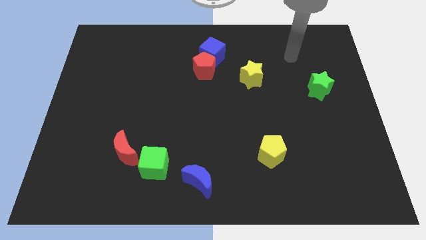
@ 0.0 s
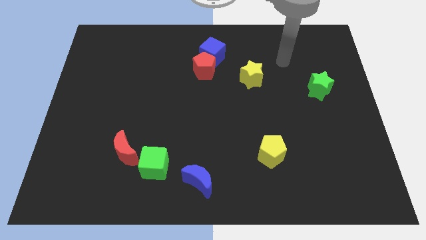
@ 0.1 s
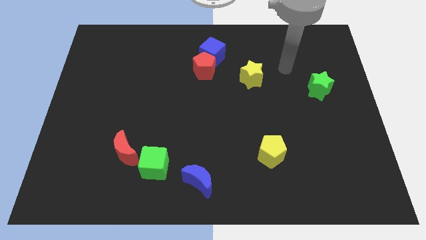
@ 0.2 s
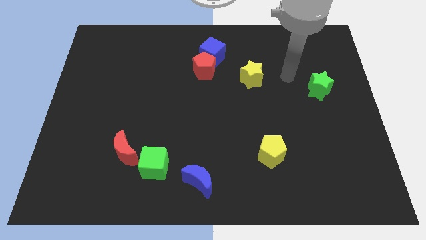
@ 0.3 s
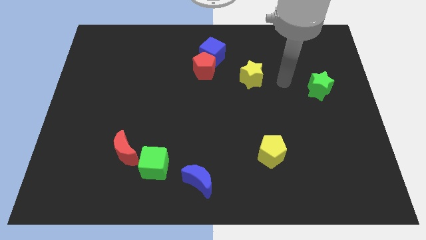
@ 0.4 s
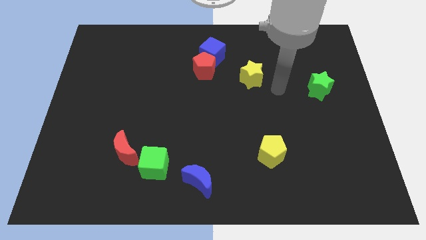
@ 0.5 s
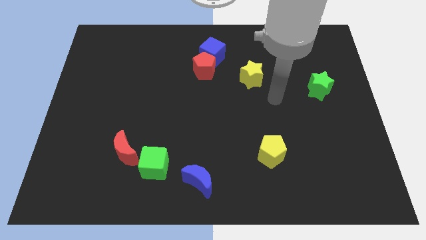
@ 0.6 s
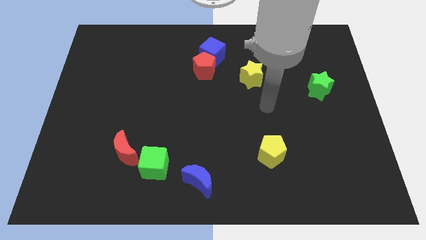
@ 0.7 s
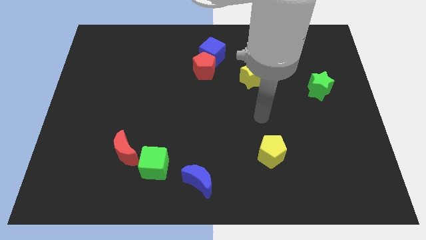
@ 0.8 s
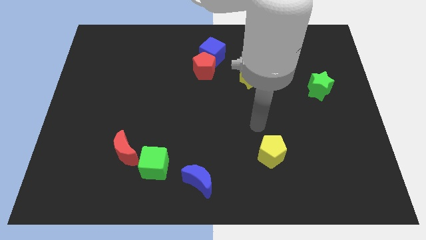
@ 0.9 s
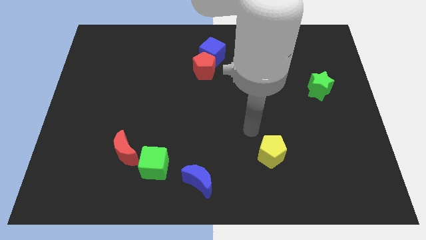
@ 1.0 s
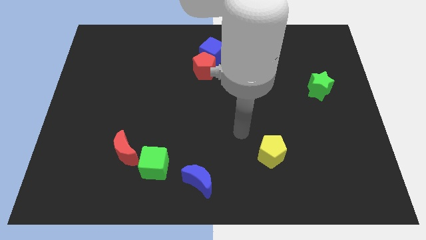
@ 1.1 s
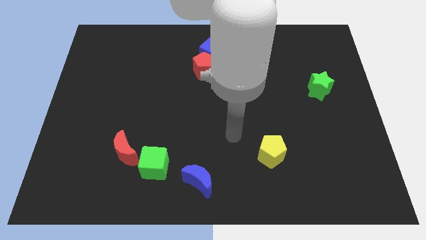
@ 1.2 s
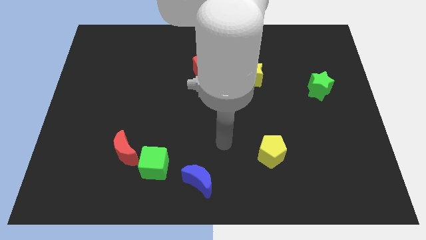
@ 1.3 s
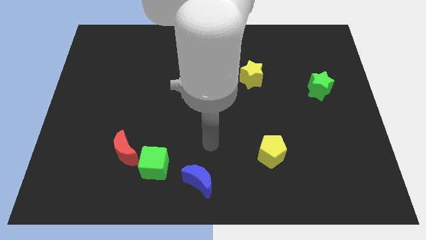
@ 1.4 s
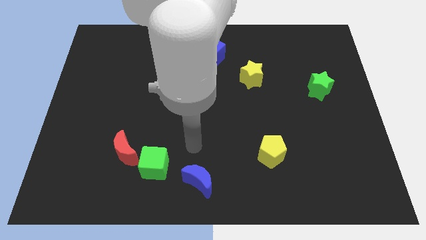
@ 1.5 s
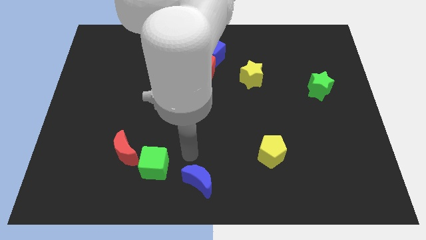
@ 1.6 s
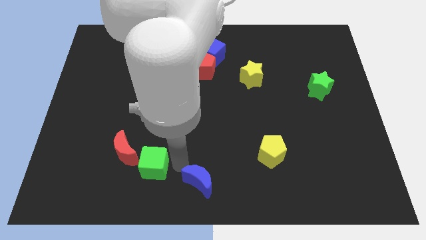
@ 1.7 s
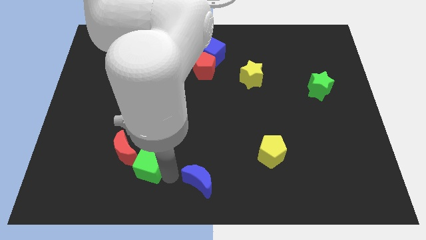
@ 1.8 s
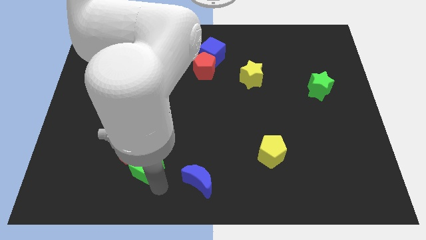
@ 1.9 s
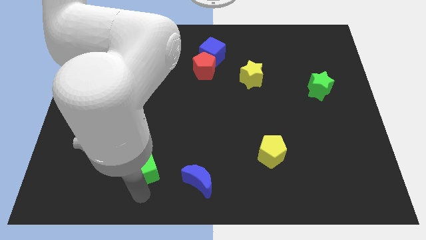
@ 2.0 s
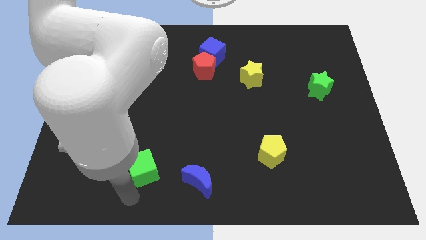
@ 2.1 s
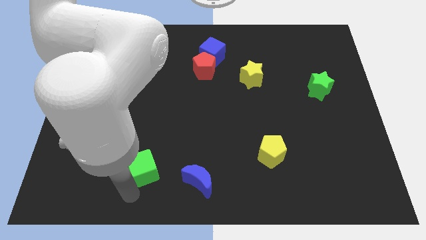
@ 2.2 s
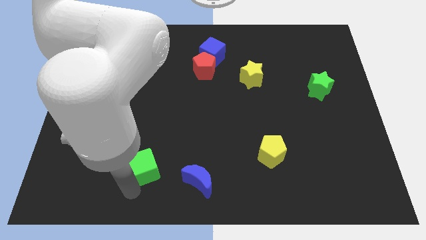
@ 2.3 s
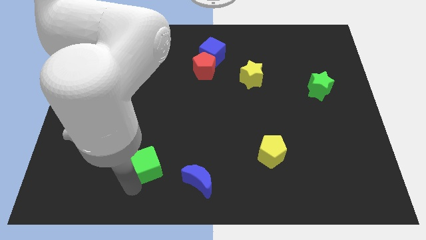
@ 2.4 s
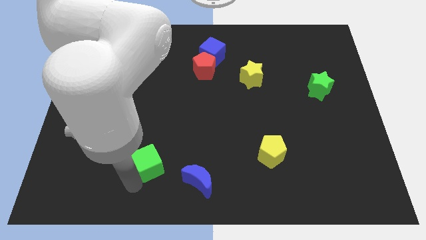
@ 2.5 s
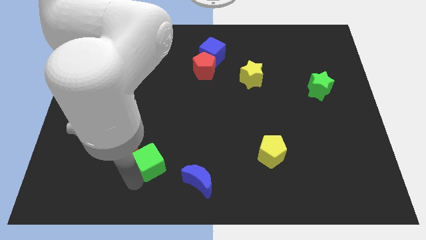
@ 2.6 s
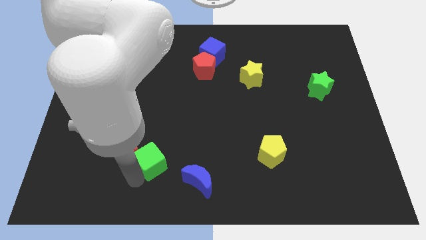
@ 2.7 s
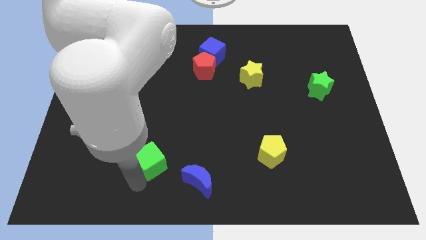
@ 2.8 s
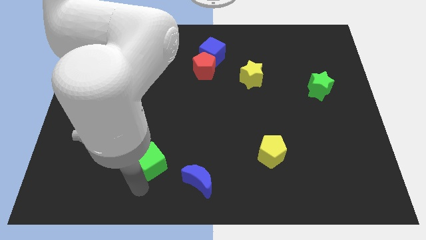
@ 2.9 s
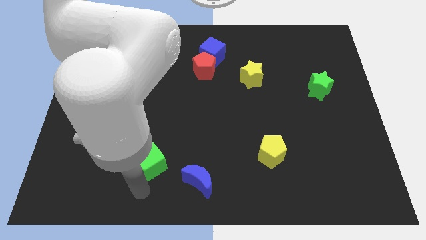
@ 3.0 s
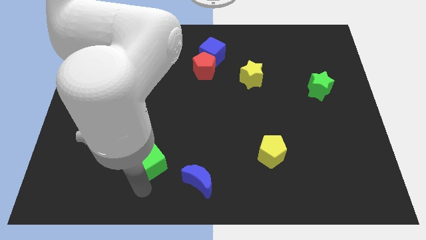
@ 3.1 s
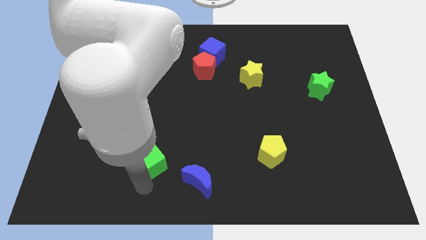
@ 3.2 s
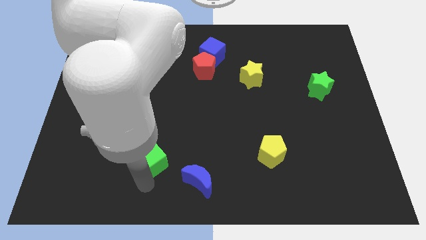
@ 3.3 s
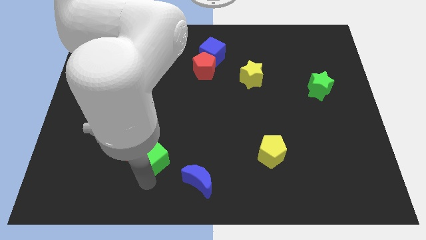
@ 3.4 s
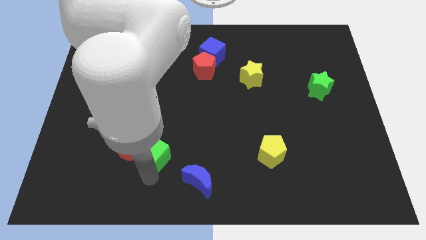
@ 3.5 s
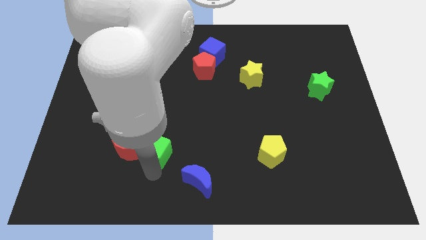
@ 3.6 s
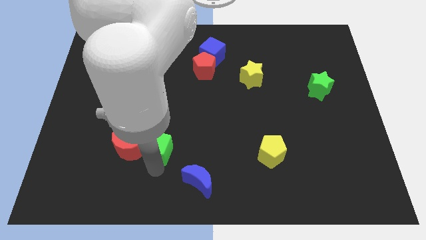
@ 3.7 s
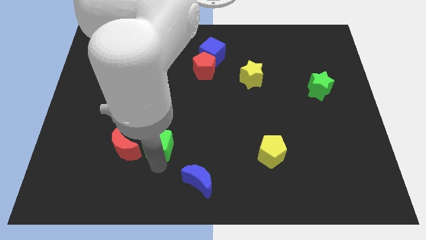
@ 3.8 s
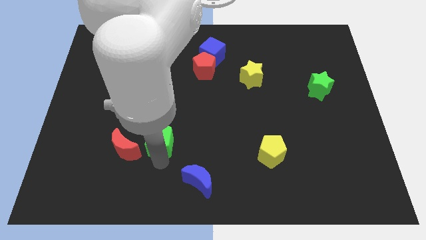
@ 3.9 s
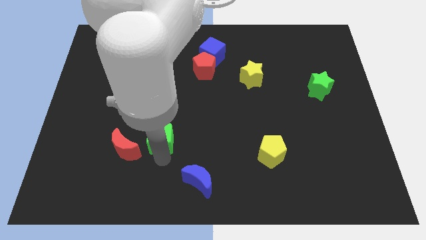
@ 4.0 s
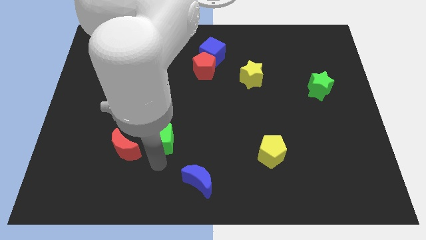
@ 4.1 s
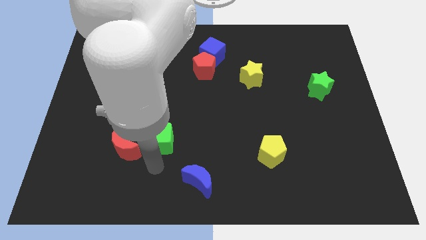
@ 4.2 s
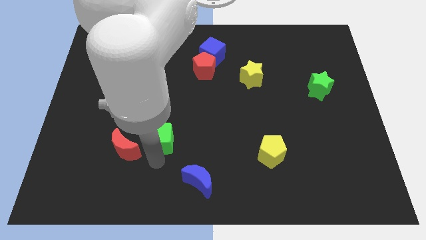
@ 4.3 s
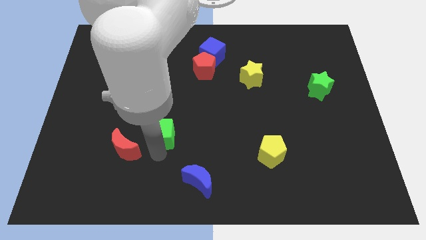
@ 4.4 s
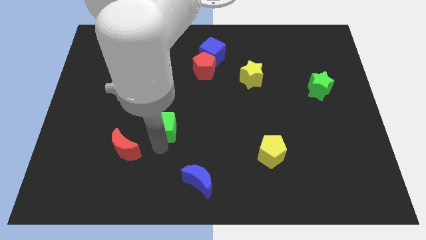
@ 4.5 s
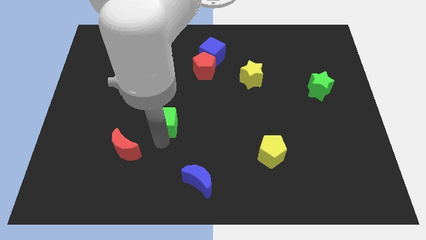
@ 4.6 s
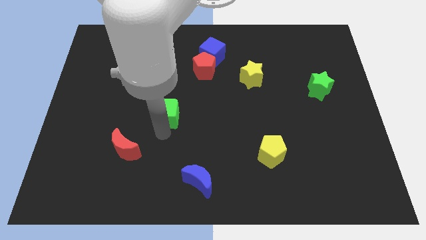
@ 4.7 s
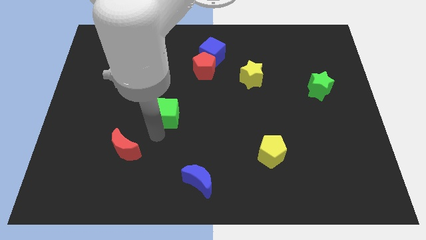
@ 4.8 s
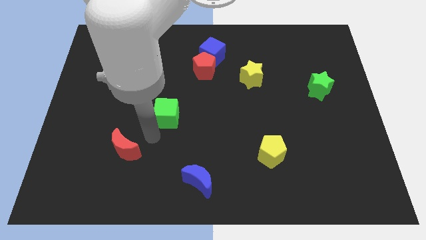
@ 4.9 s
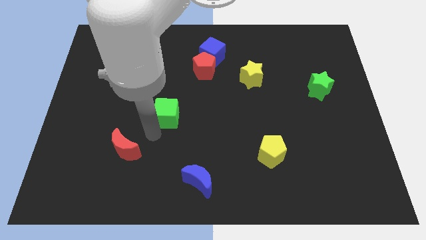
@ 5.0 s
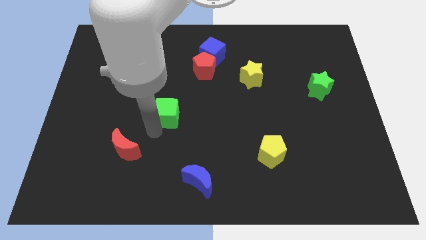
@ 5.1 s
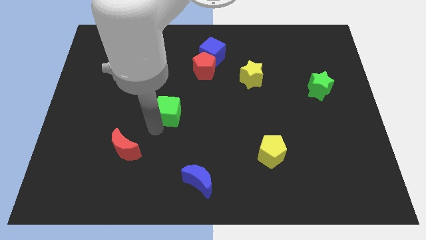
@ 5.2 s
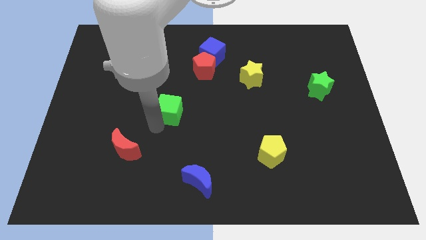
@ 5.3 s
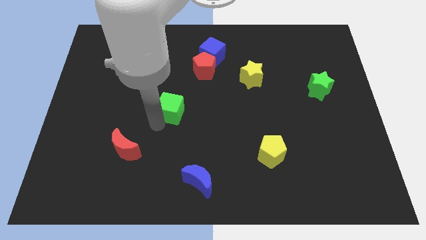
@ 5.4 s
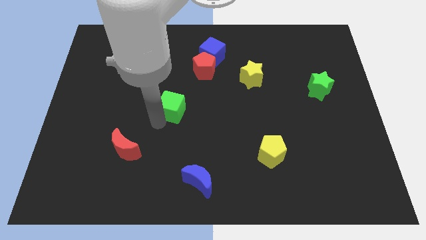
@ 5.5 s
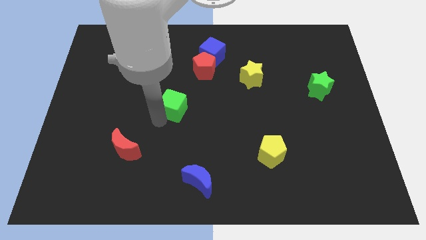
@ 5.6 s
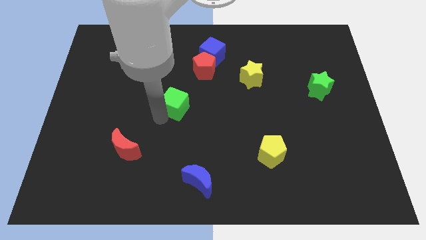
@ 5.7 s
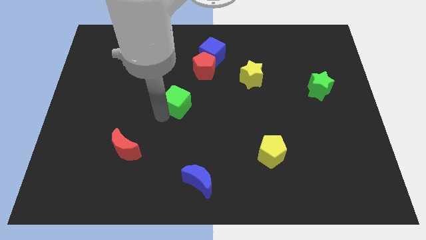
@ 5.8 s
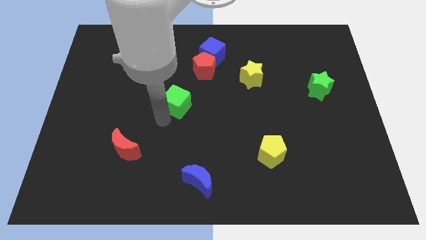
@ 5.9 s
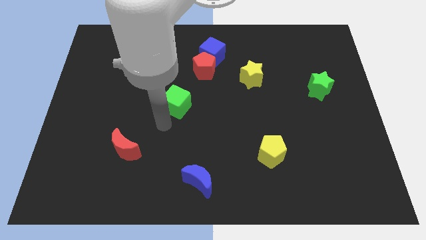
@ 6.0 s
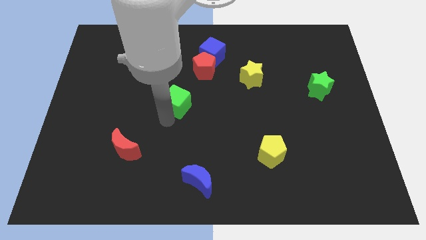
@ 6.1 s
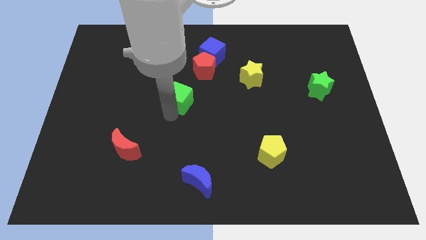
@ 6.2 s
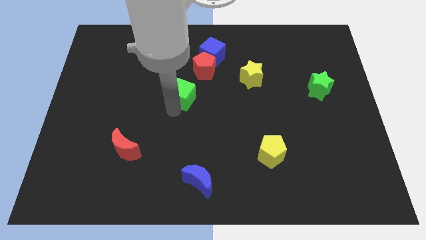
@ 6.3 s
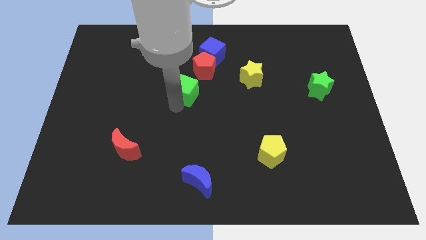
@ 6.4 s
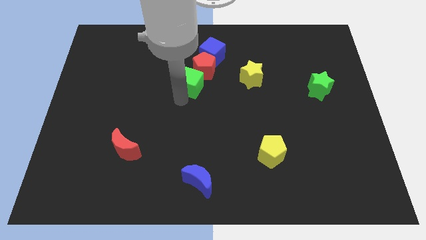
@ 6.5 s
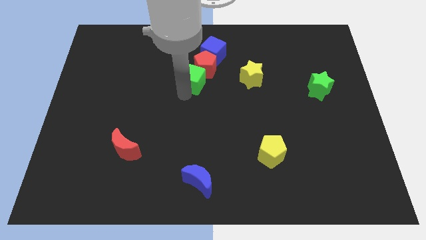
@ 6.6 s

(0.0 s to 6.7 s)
put the green cube towards the red pentagon
